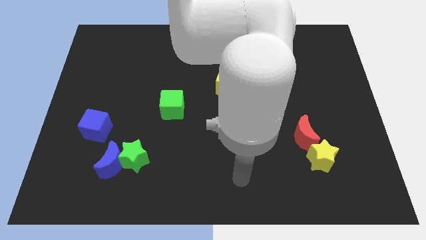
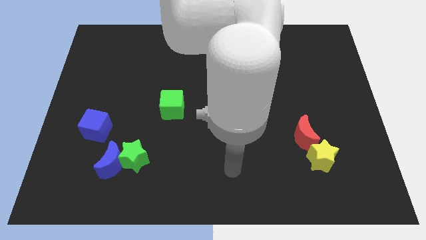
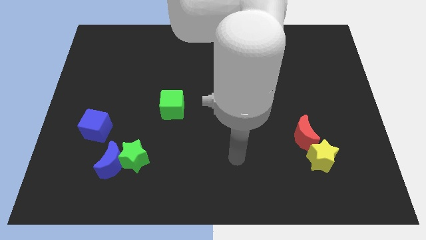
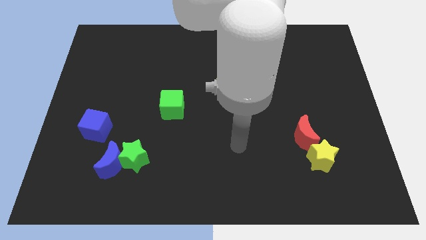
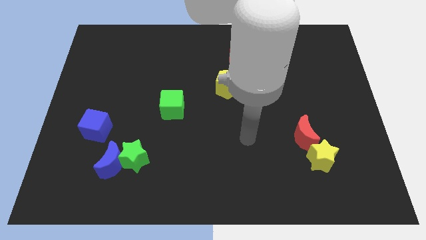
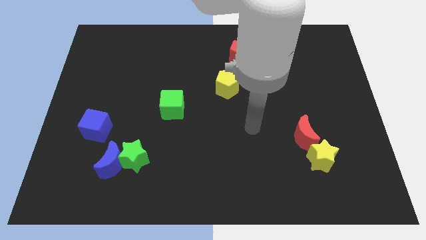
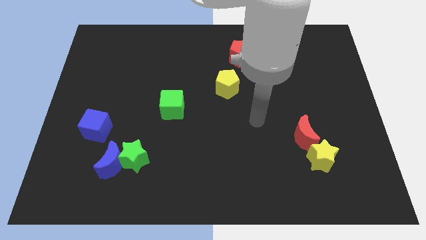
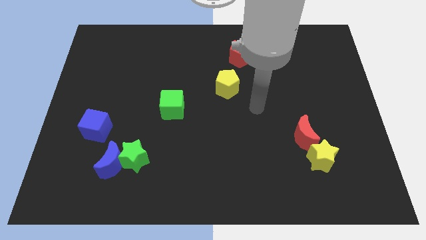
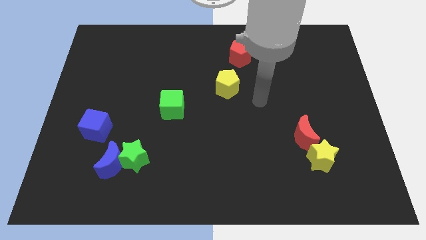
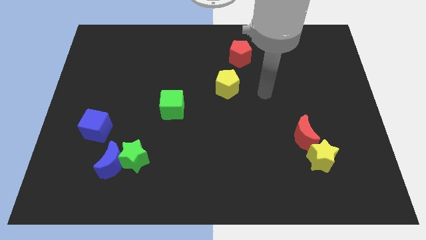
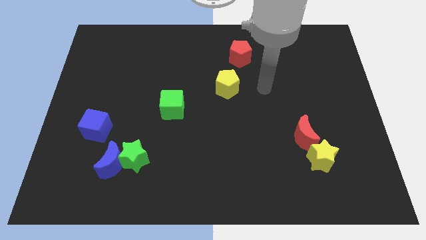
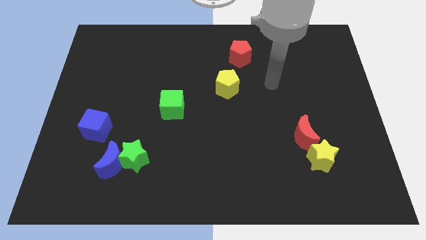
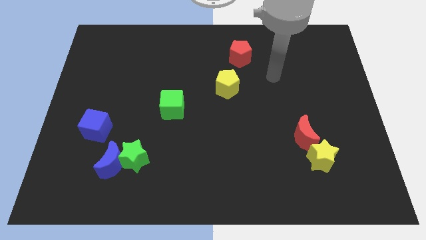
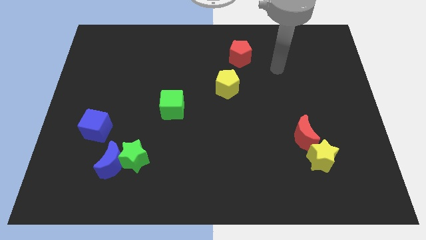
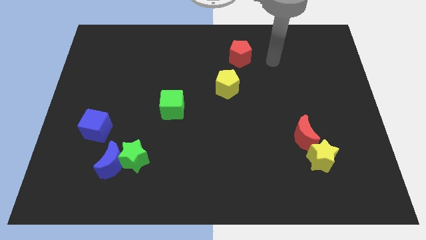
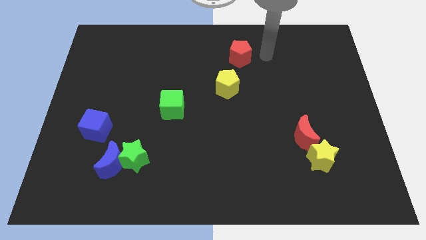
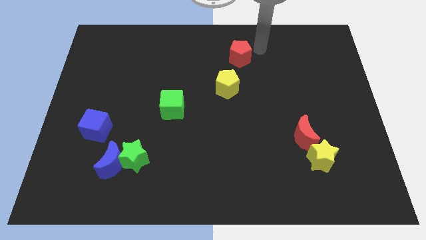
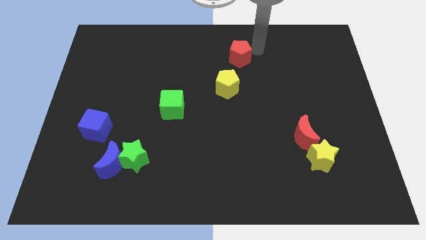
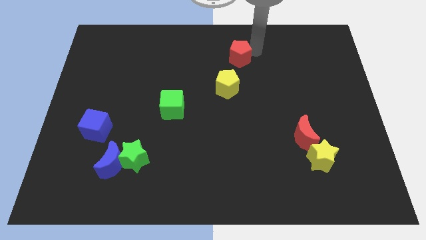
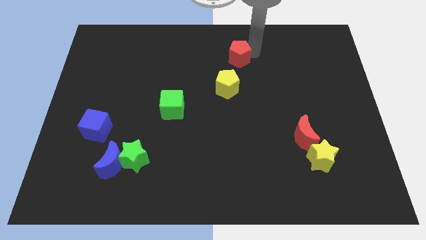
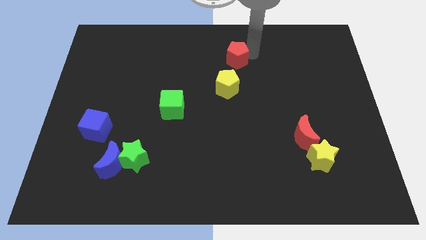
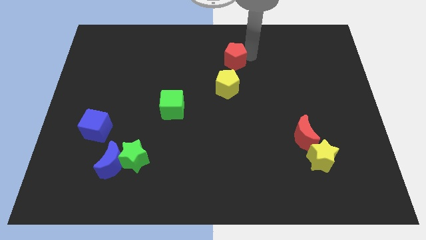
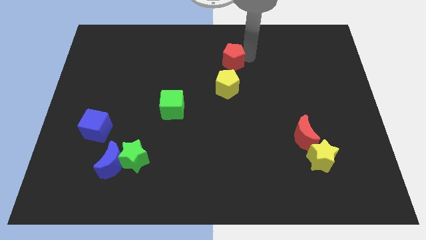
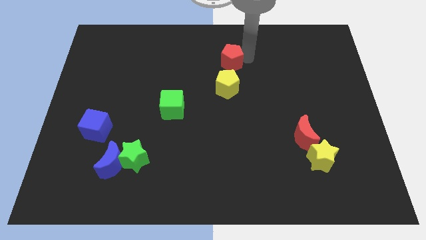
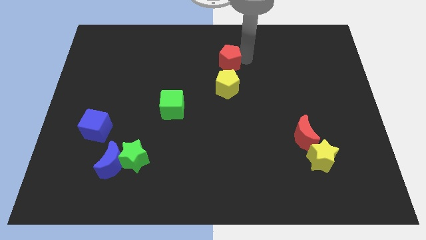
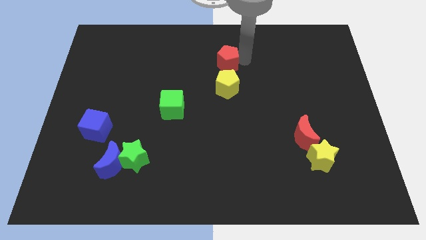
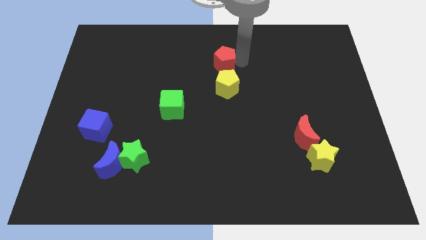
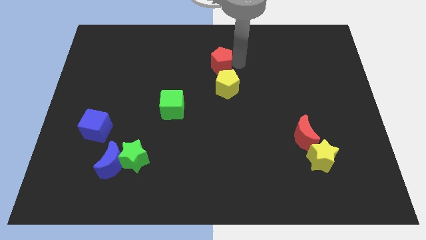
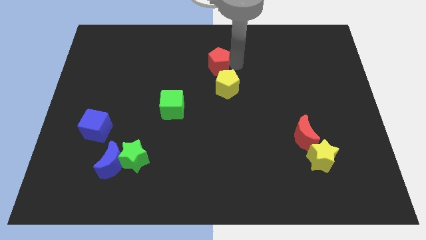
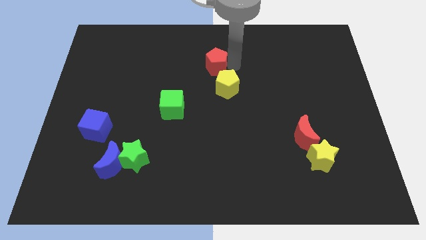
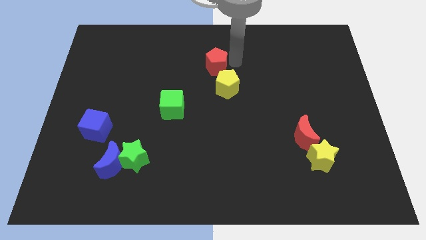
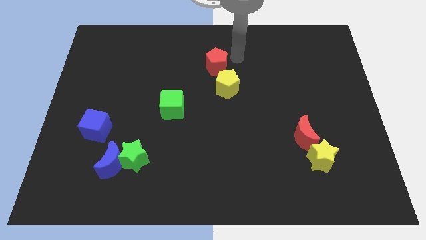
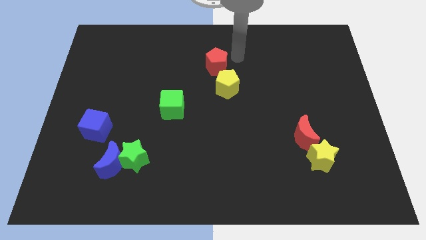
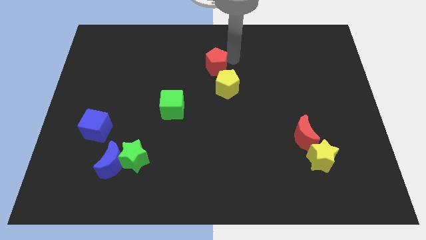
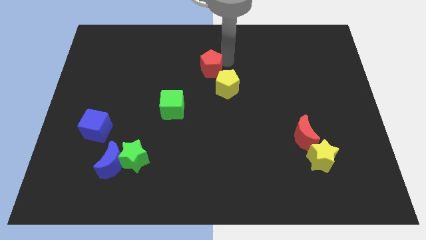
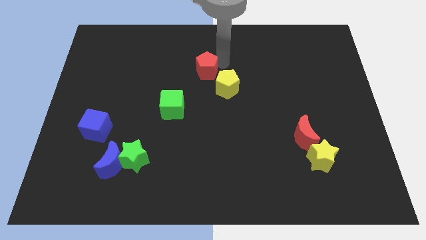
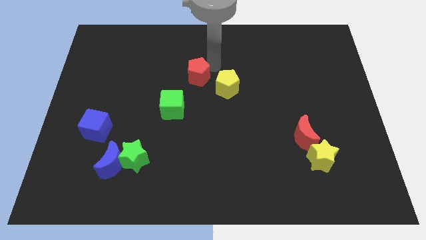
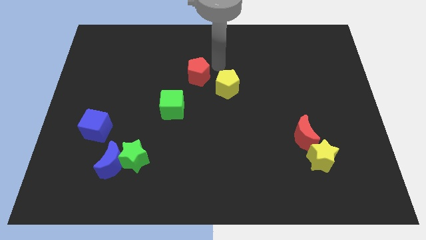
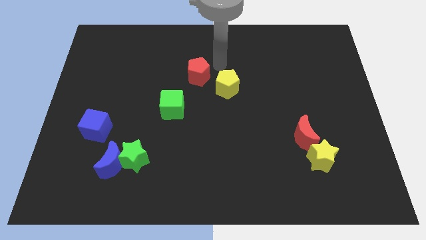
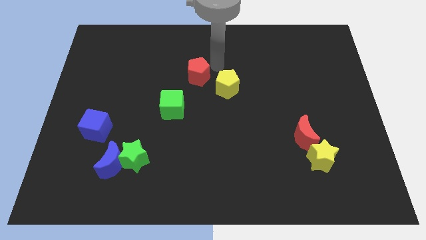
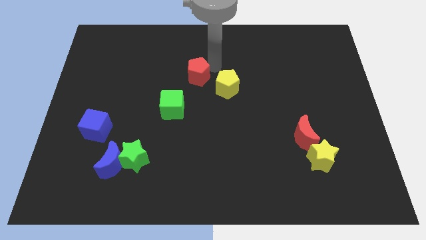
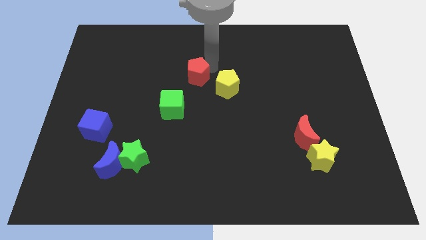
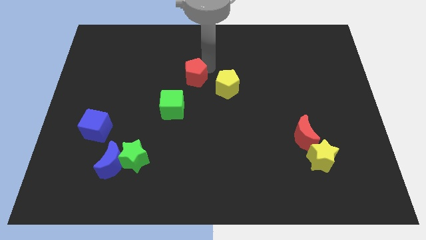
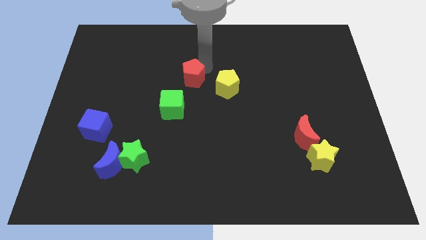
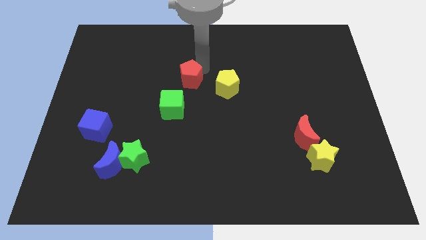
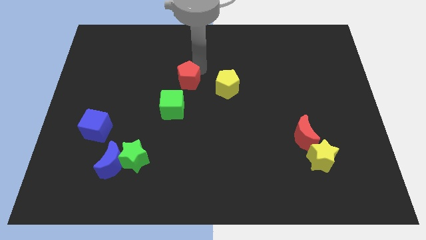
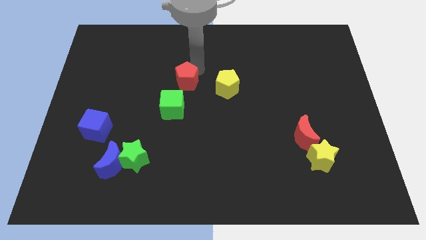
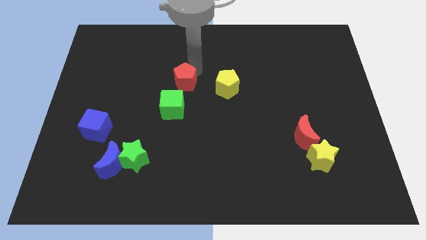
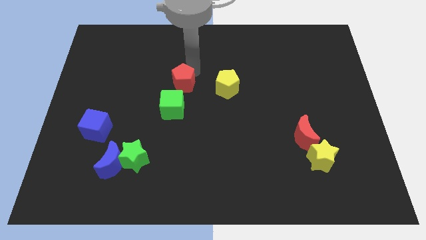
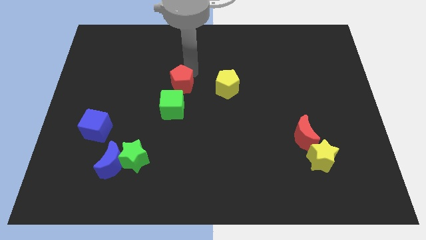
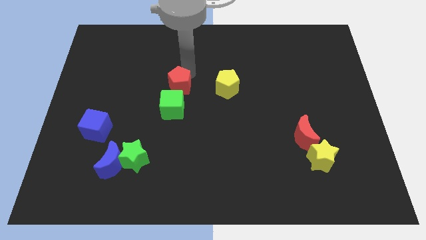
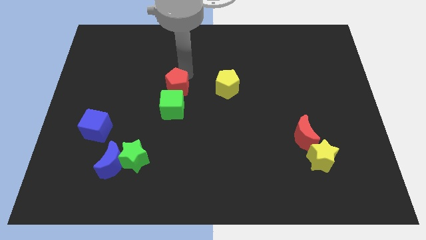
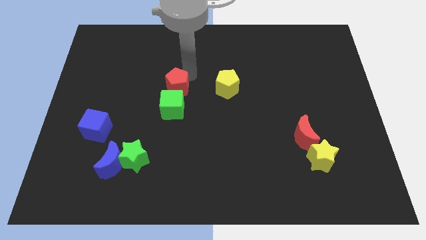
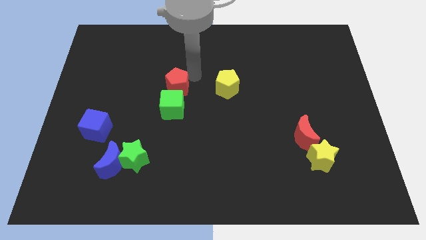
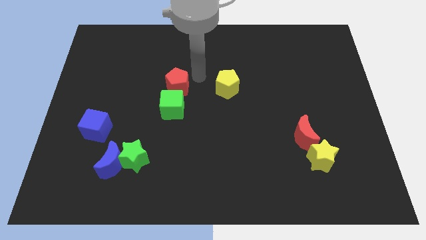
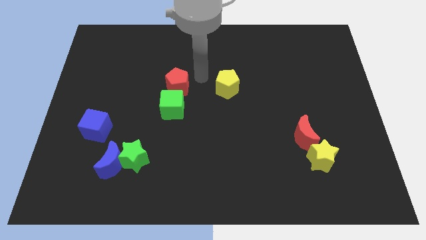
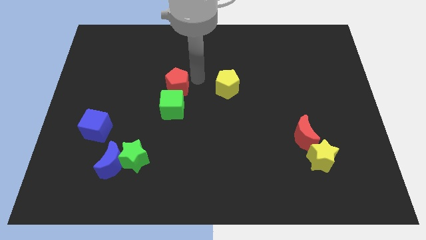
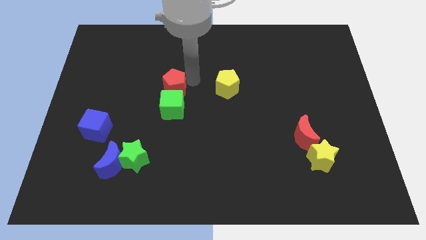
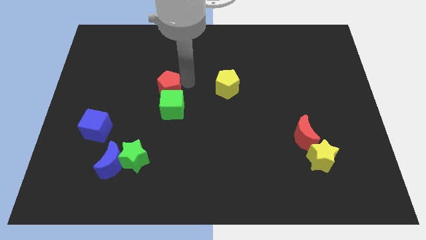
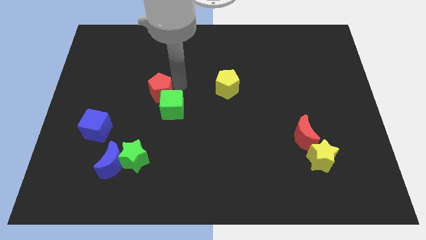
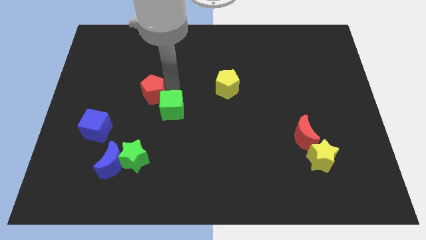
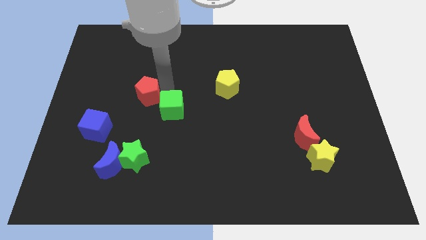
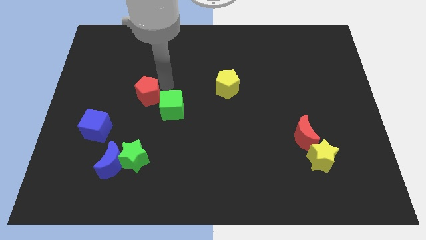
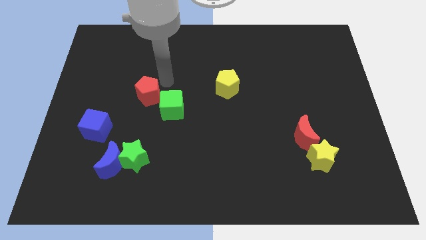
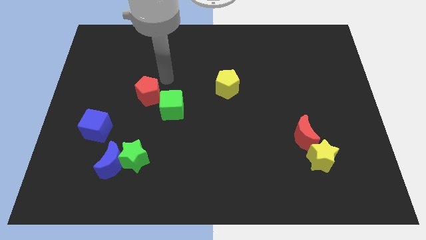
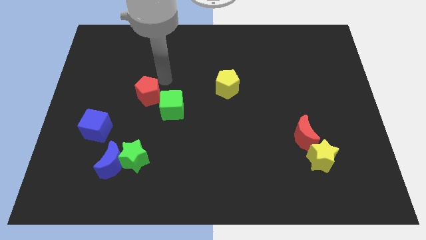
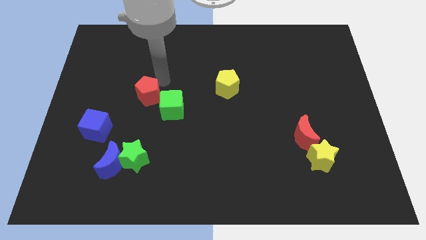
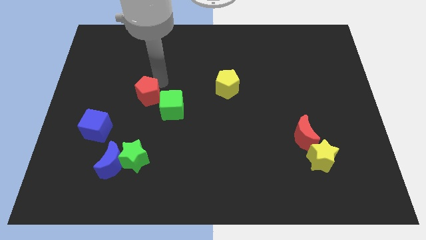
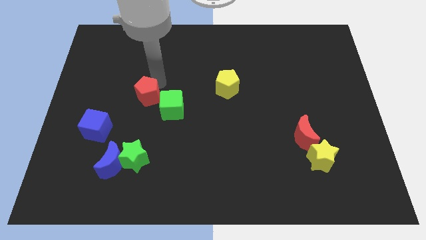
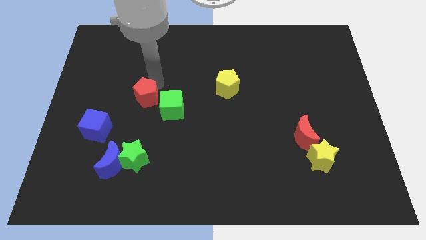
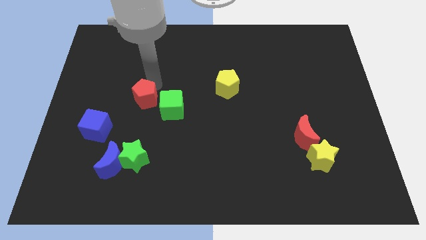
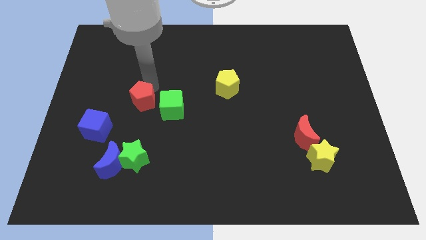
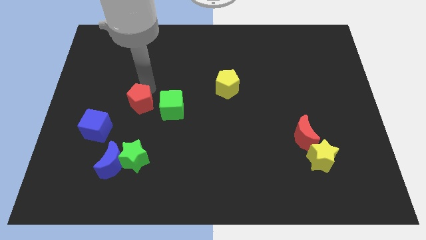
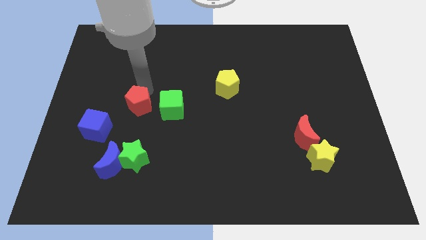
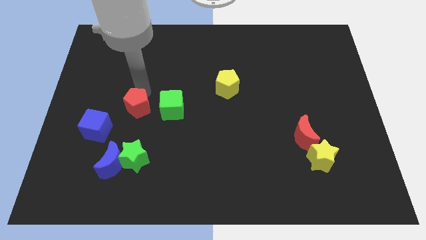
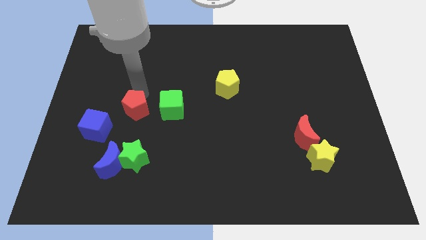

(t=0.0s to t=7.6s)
slide the red pentagon to the top of the blue moon

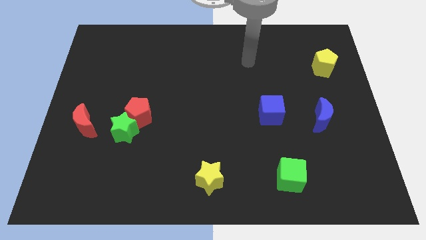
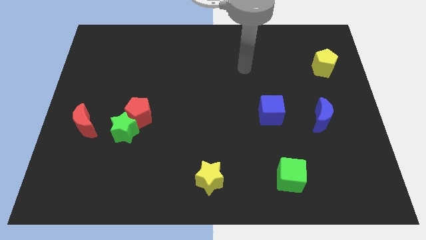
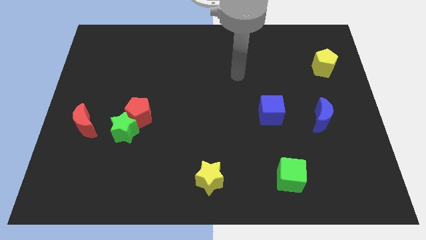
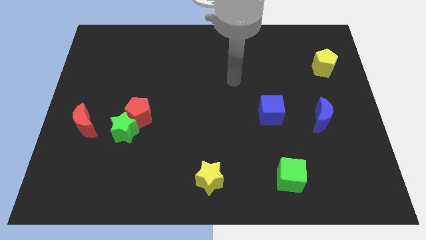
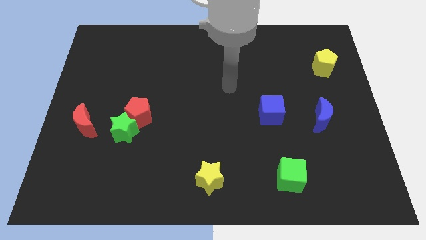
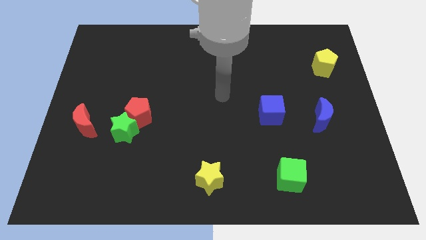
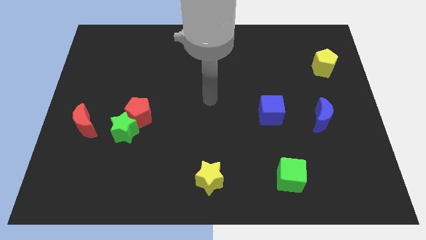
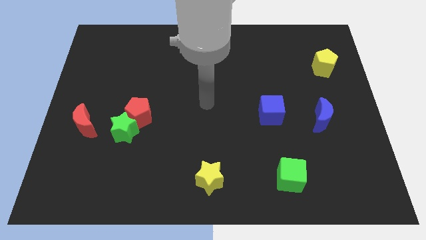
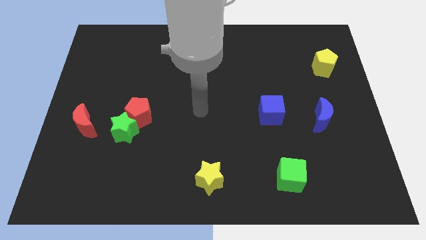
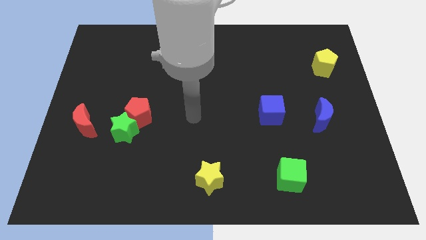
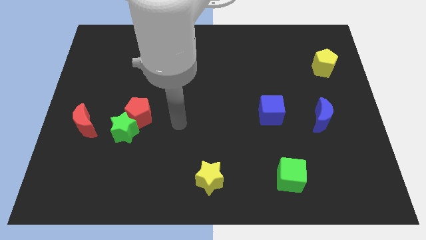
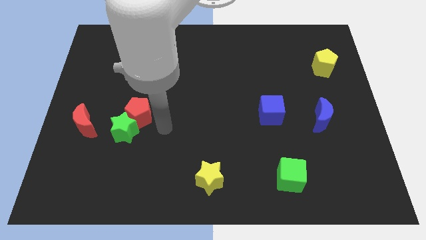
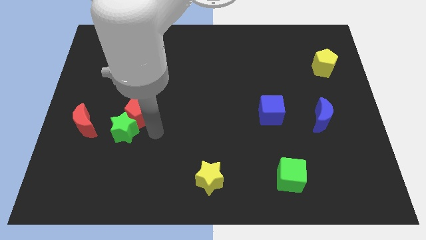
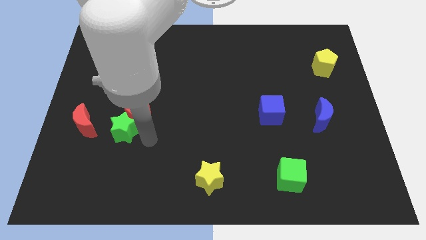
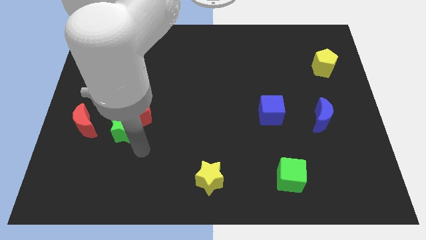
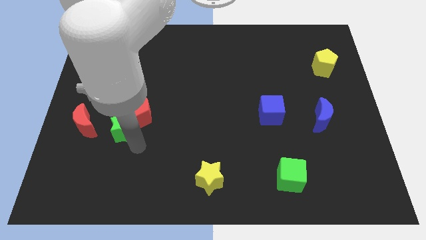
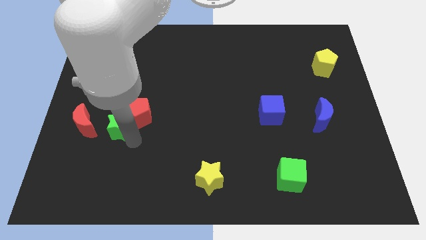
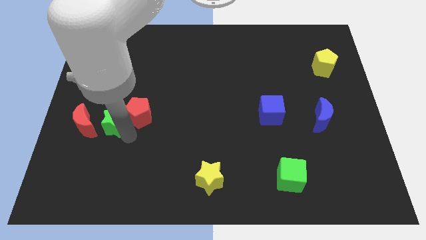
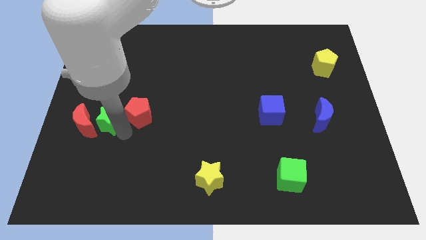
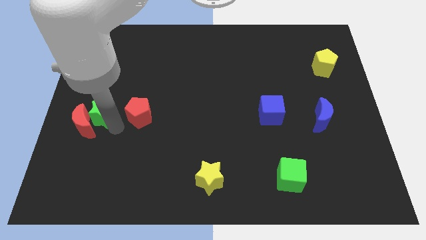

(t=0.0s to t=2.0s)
push the green star above the red moon
